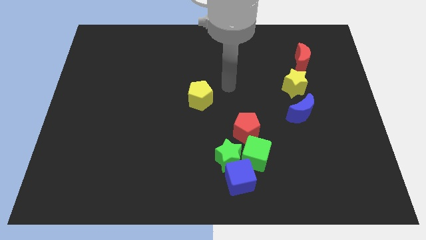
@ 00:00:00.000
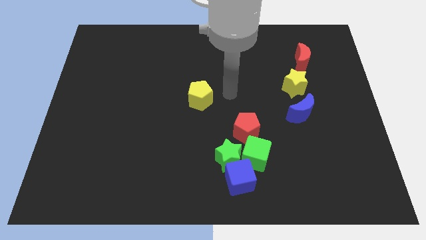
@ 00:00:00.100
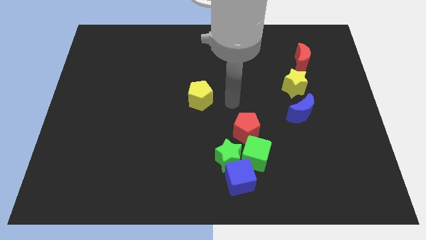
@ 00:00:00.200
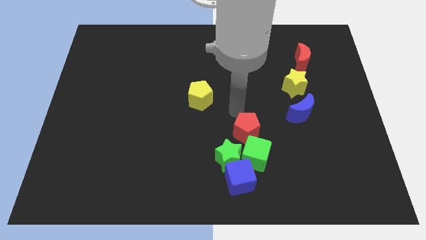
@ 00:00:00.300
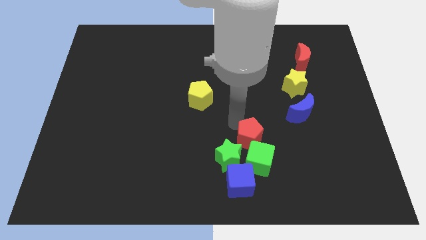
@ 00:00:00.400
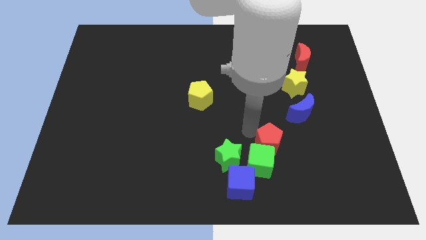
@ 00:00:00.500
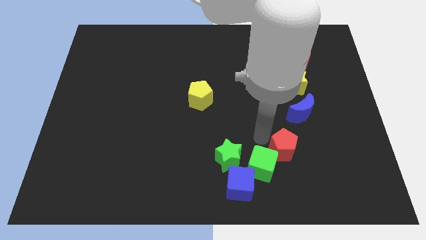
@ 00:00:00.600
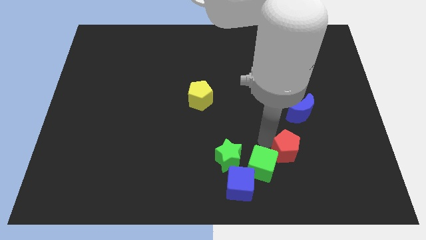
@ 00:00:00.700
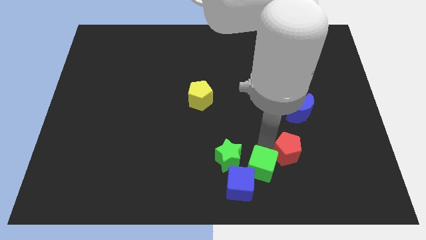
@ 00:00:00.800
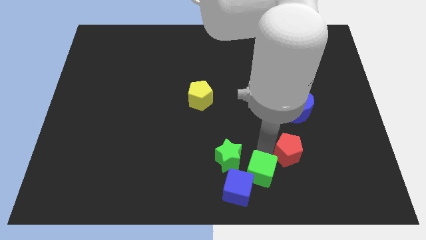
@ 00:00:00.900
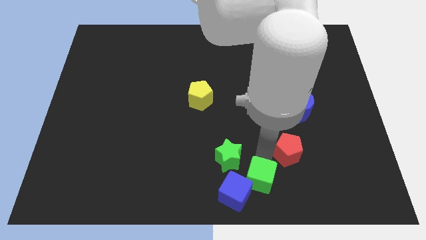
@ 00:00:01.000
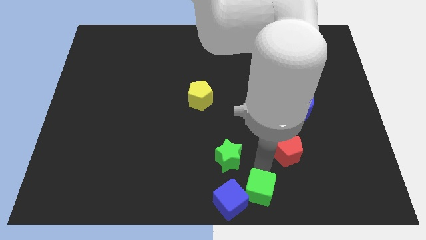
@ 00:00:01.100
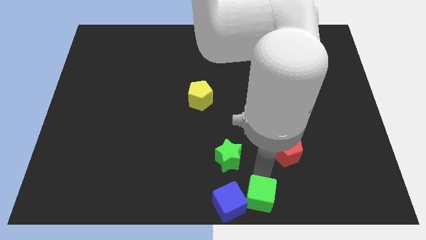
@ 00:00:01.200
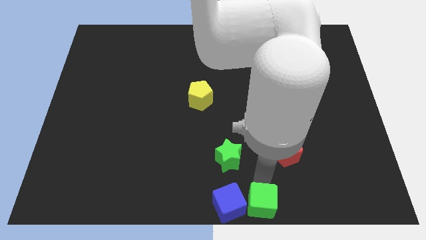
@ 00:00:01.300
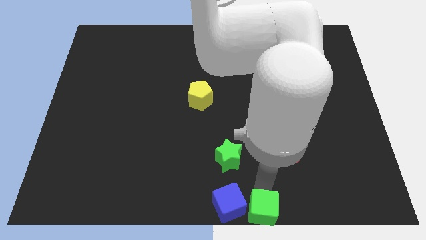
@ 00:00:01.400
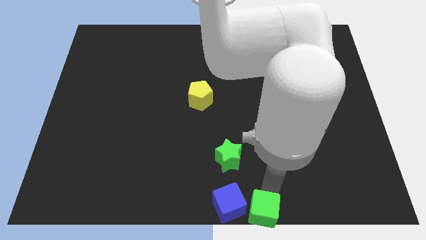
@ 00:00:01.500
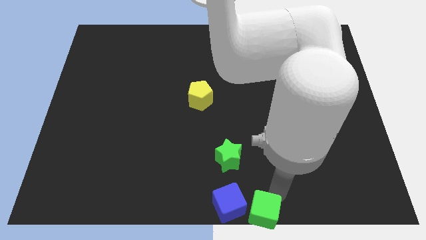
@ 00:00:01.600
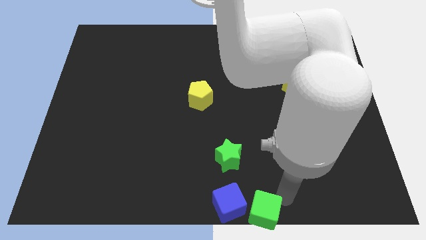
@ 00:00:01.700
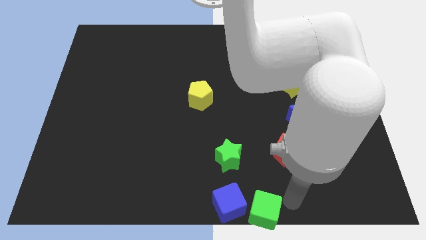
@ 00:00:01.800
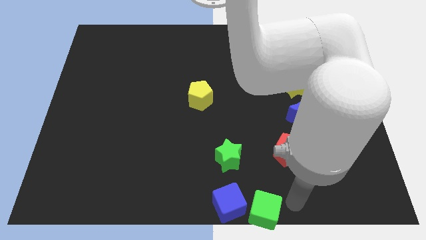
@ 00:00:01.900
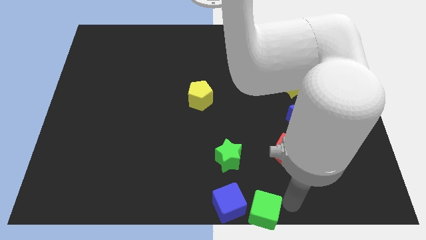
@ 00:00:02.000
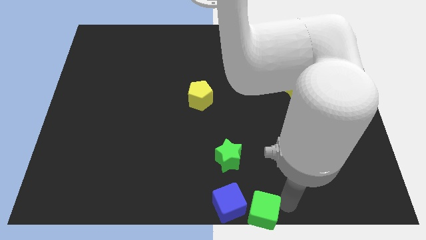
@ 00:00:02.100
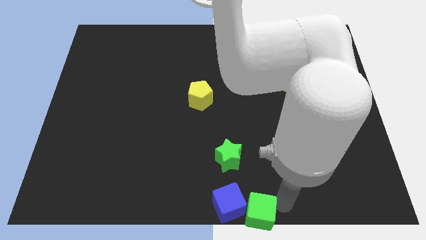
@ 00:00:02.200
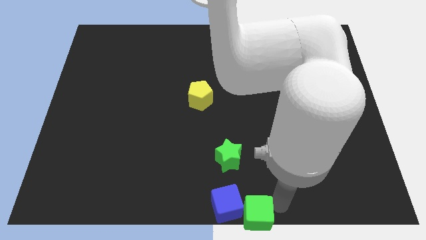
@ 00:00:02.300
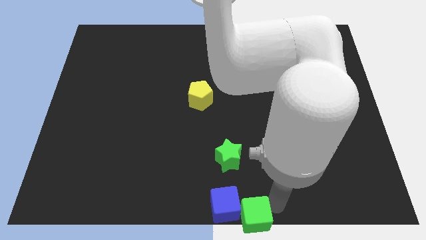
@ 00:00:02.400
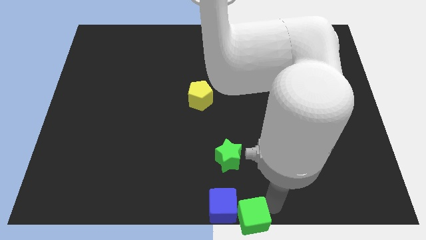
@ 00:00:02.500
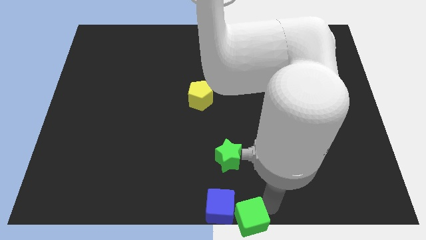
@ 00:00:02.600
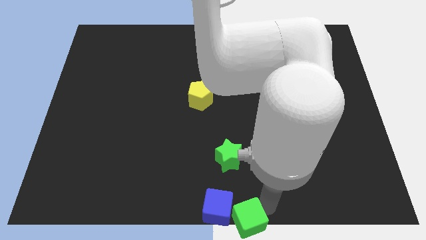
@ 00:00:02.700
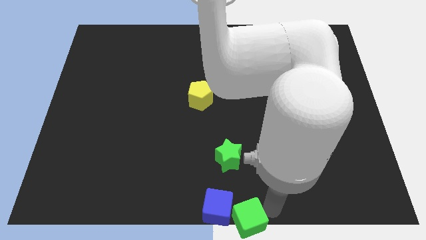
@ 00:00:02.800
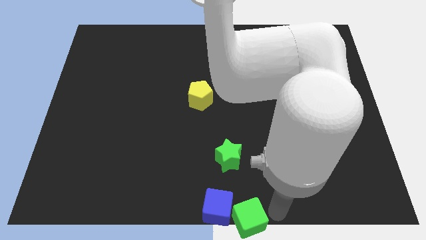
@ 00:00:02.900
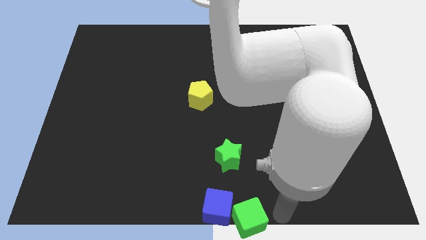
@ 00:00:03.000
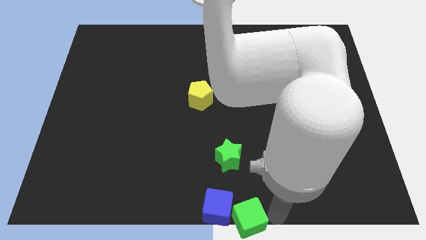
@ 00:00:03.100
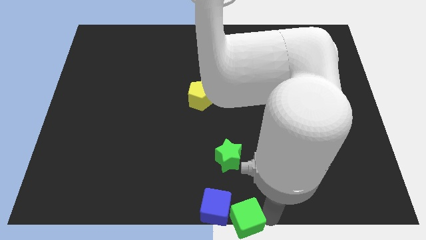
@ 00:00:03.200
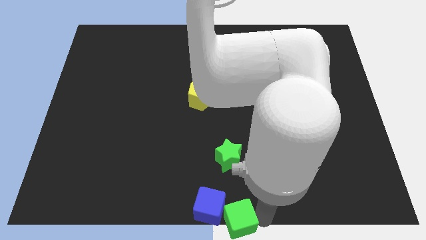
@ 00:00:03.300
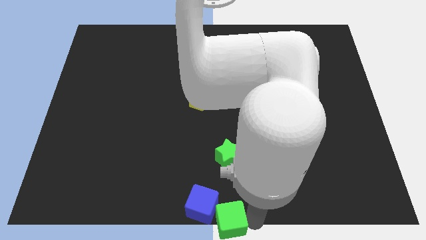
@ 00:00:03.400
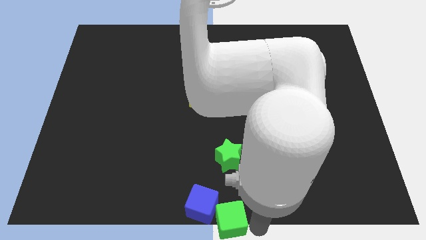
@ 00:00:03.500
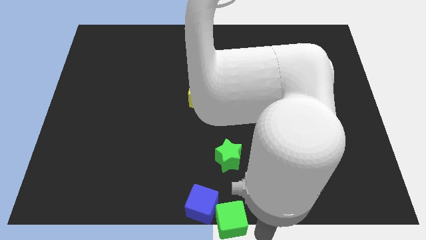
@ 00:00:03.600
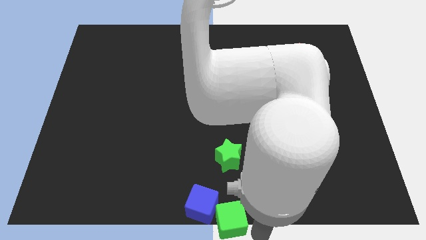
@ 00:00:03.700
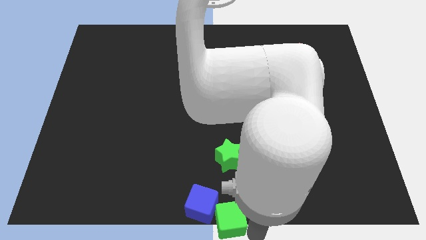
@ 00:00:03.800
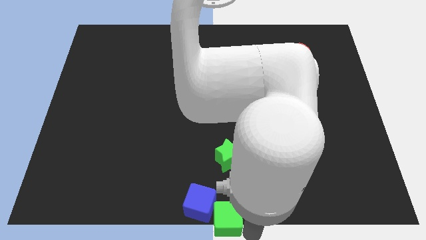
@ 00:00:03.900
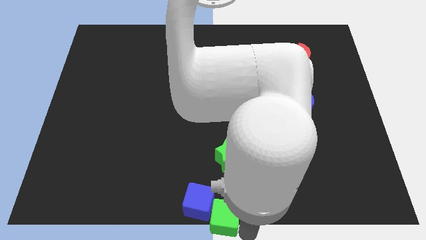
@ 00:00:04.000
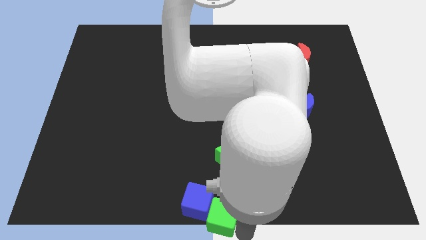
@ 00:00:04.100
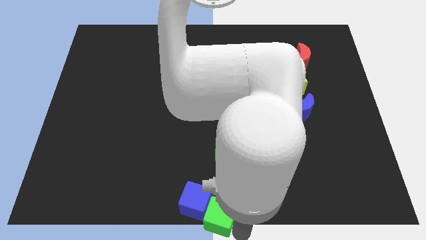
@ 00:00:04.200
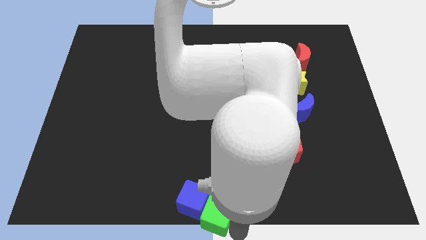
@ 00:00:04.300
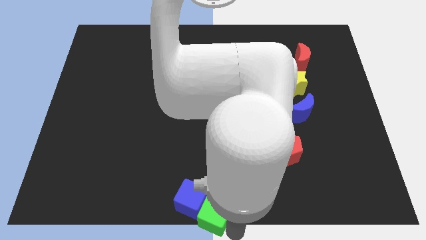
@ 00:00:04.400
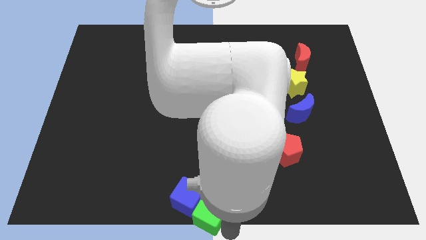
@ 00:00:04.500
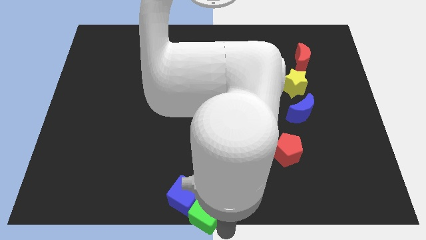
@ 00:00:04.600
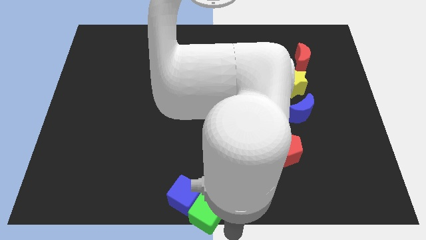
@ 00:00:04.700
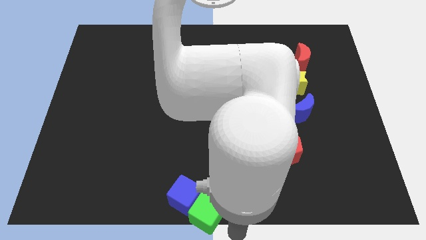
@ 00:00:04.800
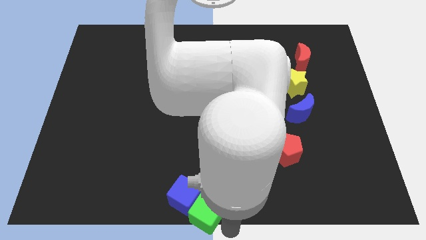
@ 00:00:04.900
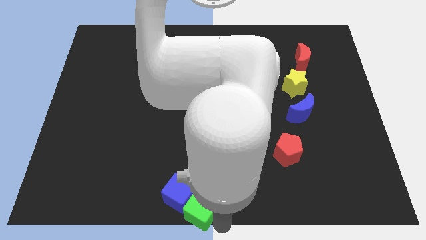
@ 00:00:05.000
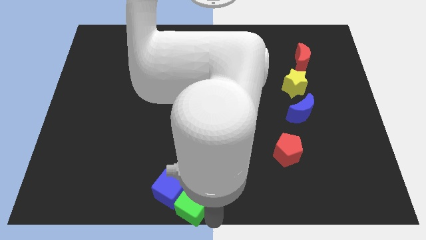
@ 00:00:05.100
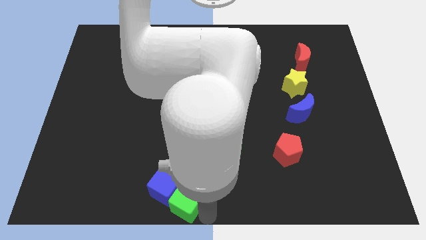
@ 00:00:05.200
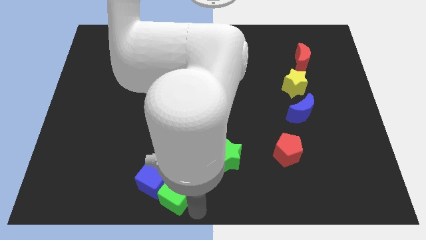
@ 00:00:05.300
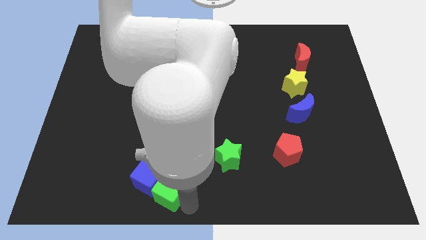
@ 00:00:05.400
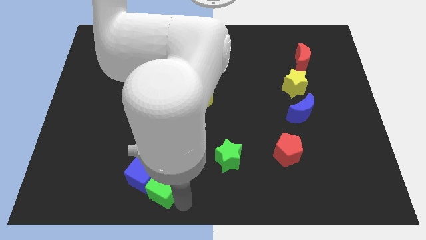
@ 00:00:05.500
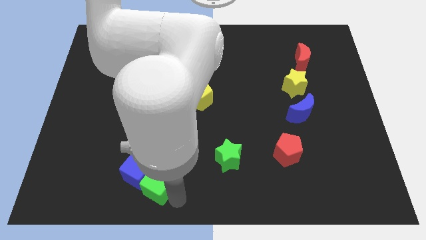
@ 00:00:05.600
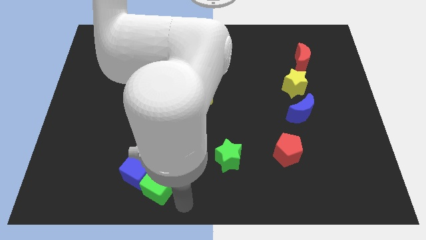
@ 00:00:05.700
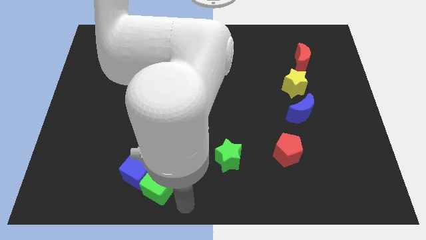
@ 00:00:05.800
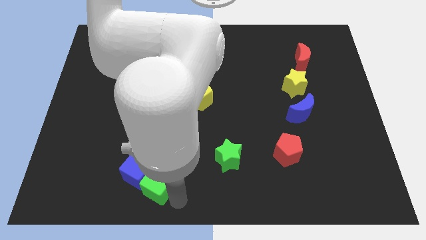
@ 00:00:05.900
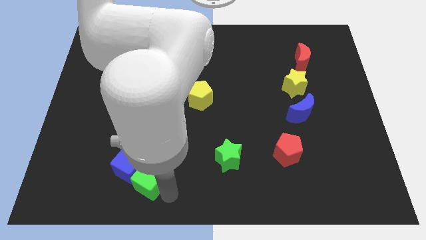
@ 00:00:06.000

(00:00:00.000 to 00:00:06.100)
move the green cube to the left

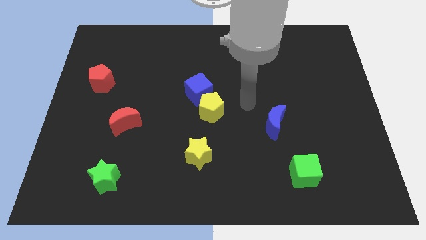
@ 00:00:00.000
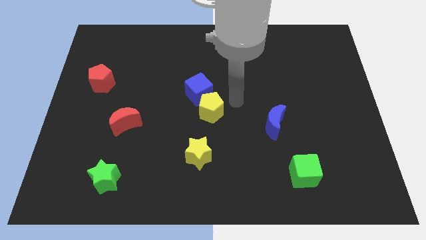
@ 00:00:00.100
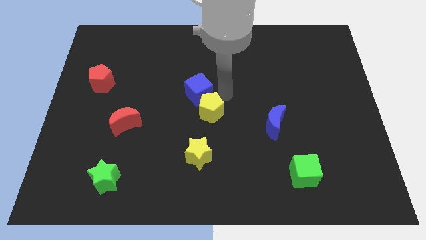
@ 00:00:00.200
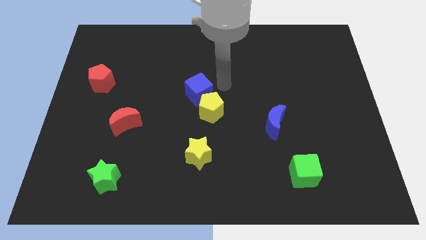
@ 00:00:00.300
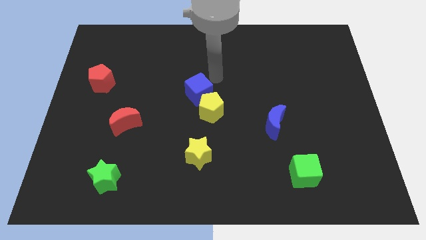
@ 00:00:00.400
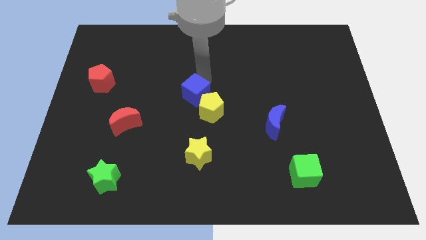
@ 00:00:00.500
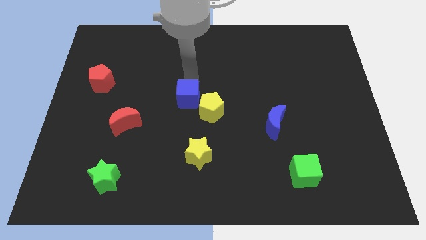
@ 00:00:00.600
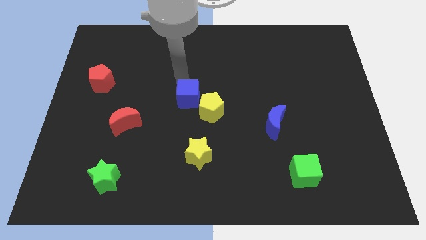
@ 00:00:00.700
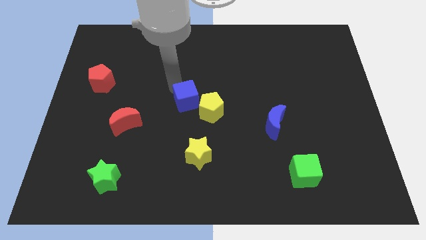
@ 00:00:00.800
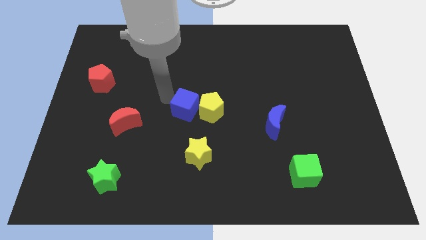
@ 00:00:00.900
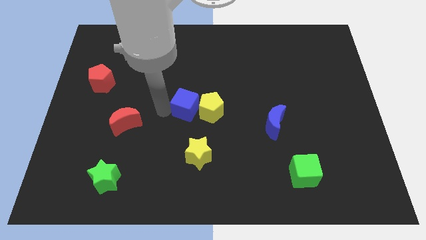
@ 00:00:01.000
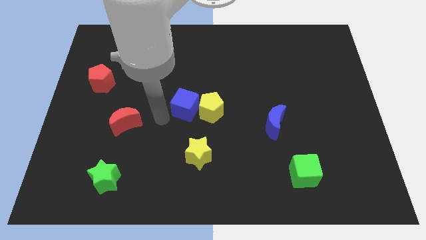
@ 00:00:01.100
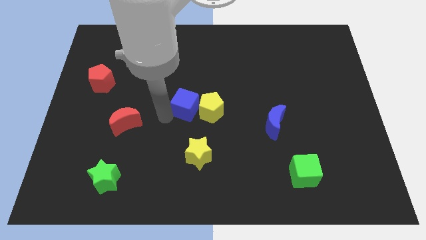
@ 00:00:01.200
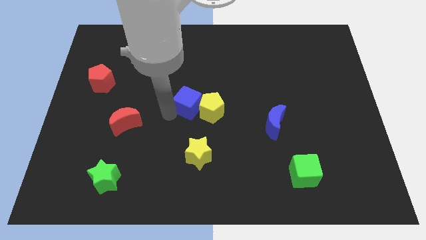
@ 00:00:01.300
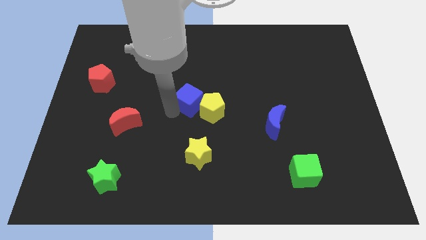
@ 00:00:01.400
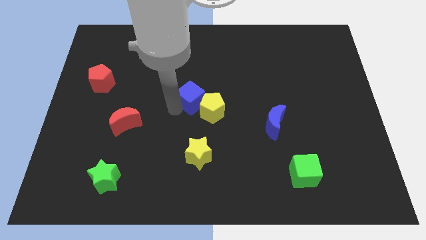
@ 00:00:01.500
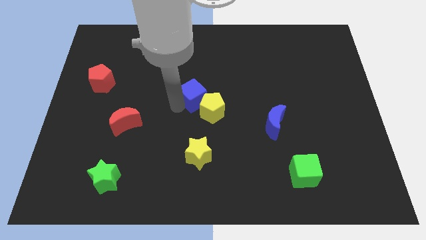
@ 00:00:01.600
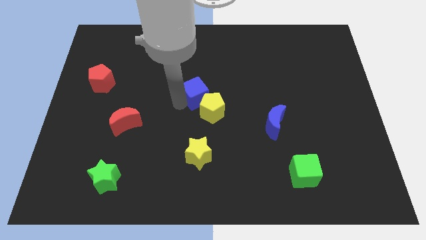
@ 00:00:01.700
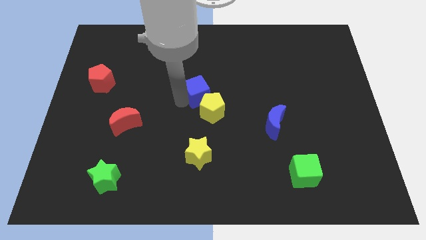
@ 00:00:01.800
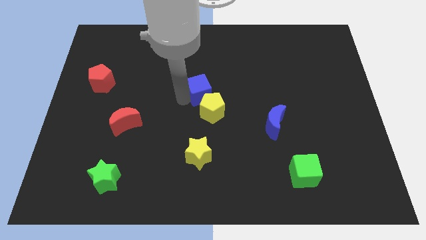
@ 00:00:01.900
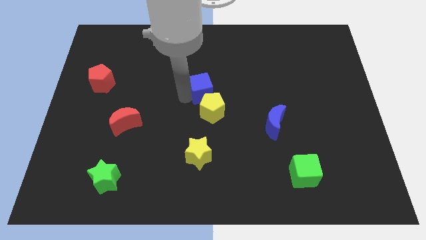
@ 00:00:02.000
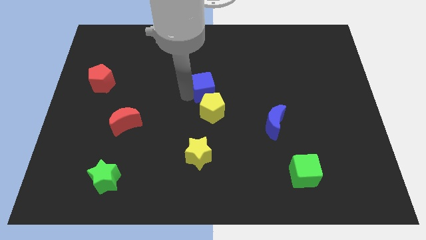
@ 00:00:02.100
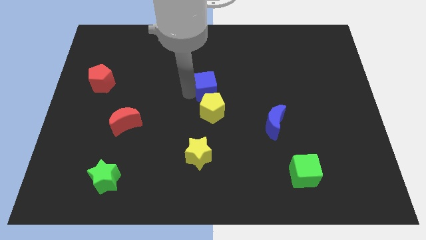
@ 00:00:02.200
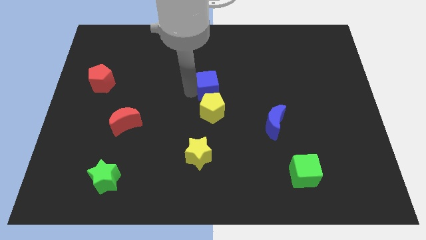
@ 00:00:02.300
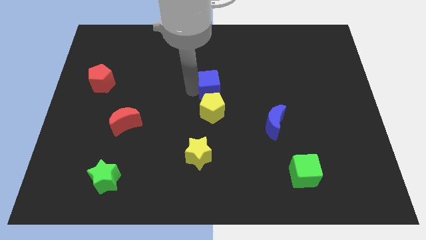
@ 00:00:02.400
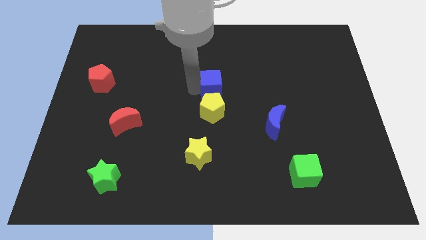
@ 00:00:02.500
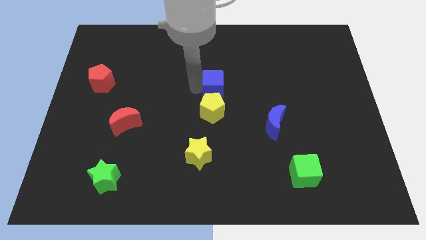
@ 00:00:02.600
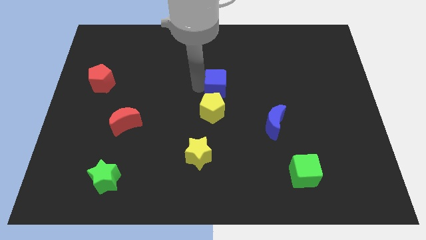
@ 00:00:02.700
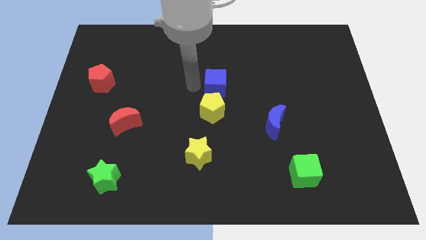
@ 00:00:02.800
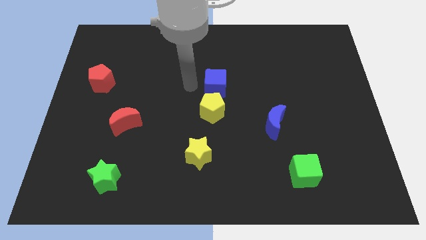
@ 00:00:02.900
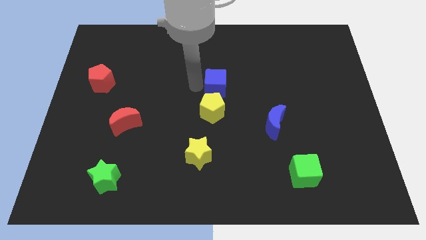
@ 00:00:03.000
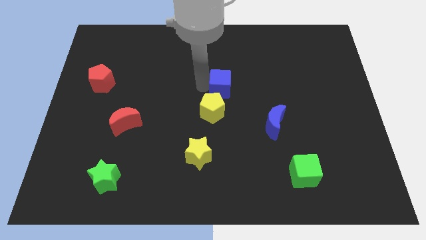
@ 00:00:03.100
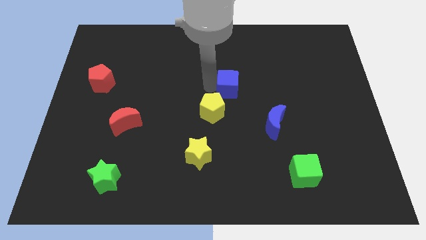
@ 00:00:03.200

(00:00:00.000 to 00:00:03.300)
push the blue cube right a bit
